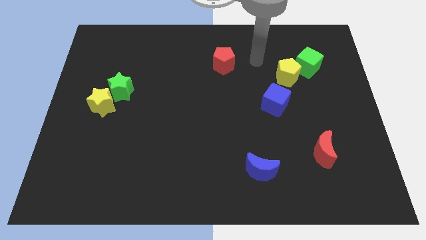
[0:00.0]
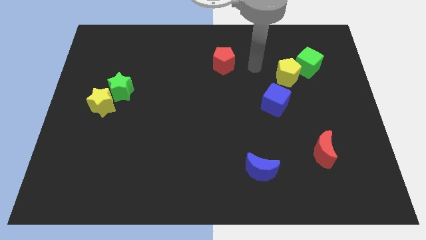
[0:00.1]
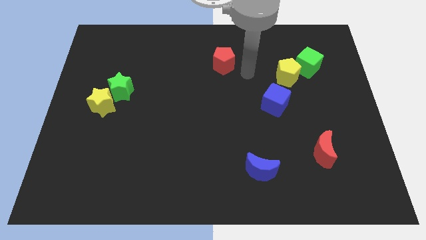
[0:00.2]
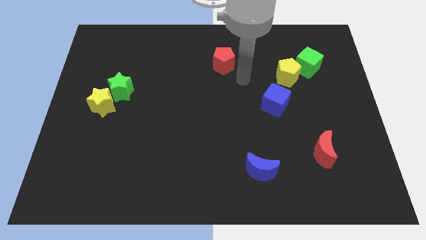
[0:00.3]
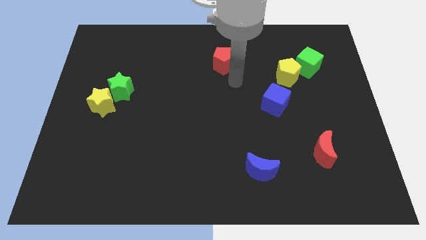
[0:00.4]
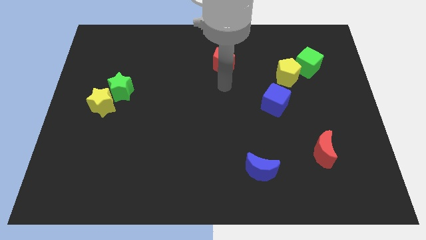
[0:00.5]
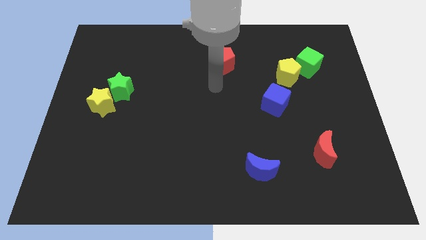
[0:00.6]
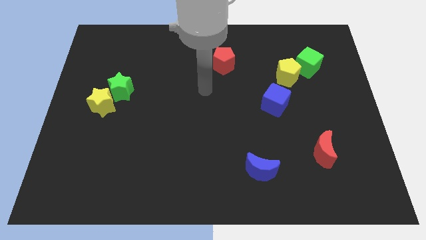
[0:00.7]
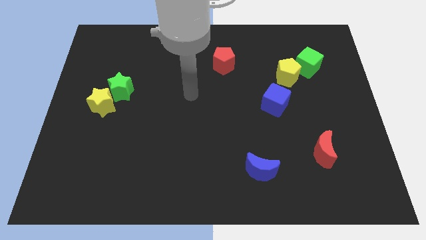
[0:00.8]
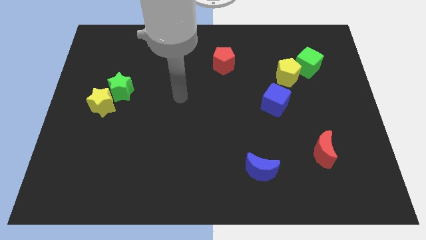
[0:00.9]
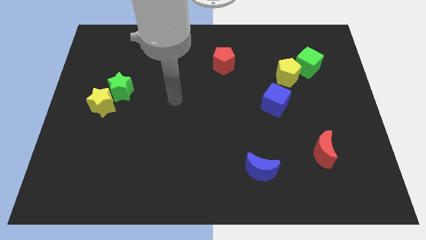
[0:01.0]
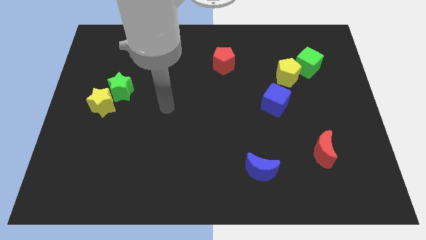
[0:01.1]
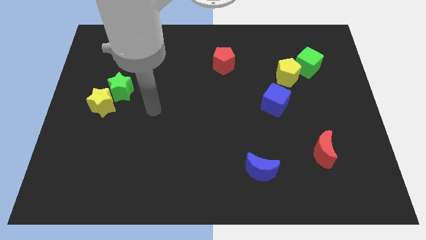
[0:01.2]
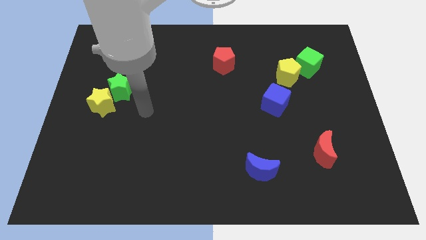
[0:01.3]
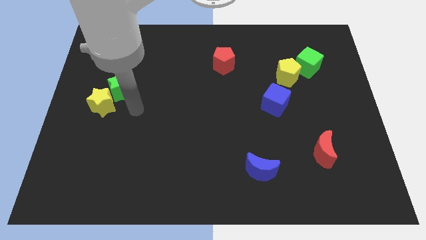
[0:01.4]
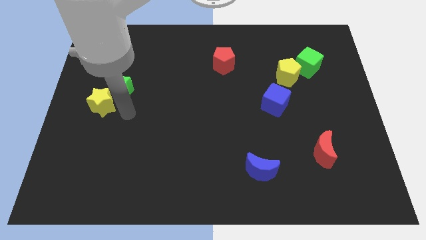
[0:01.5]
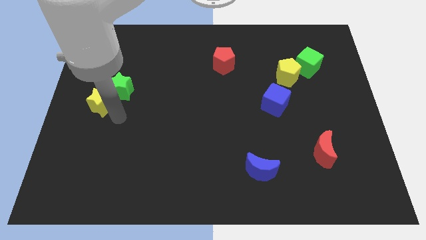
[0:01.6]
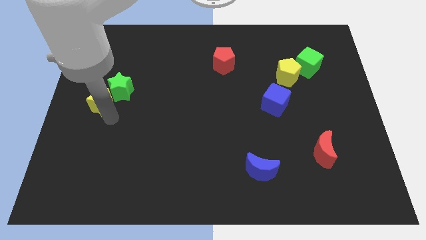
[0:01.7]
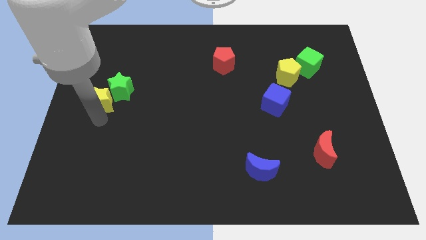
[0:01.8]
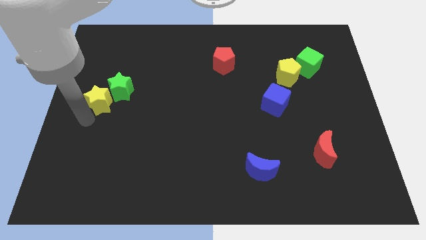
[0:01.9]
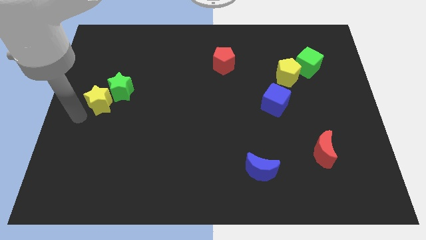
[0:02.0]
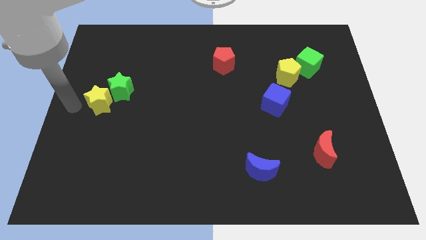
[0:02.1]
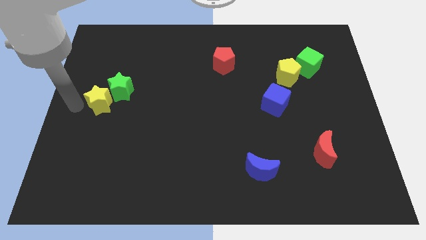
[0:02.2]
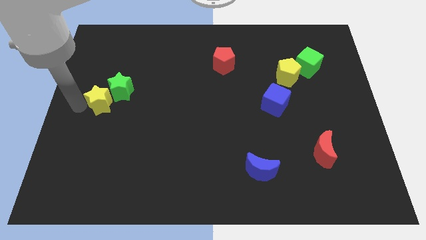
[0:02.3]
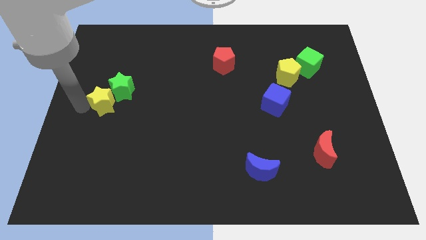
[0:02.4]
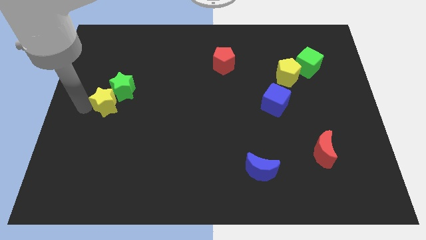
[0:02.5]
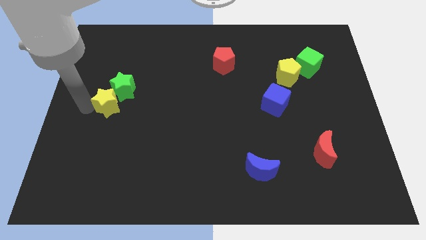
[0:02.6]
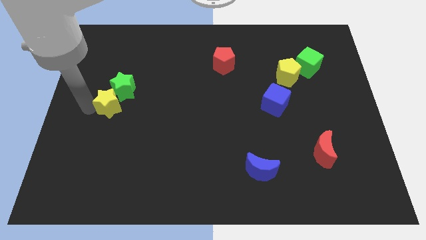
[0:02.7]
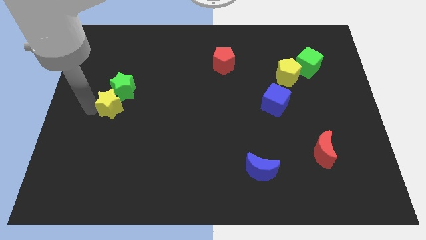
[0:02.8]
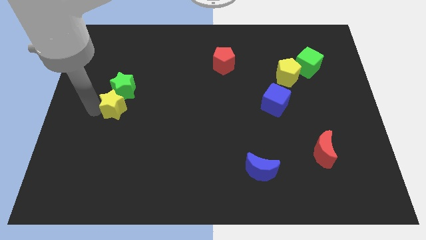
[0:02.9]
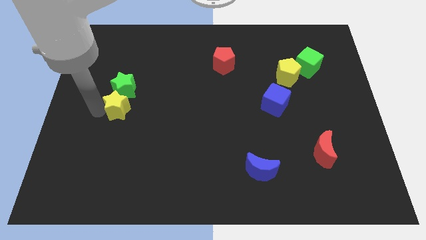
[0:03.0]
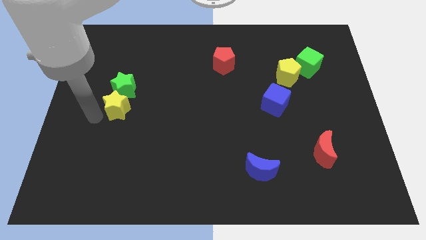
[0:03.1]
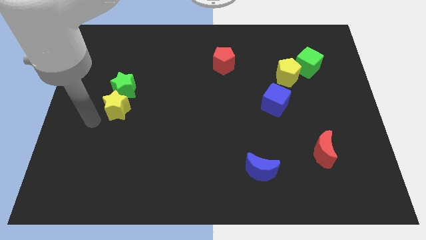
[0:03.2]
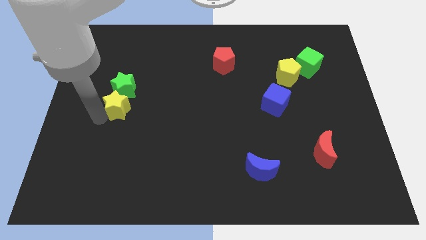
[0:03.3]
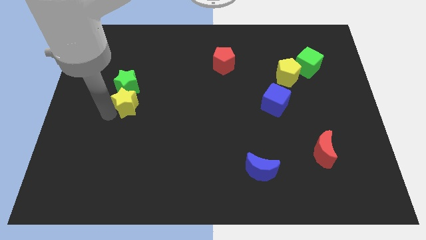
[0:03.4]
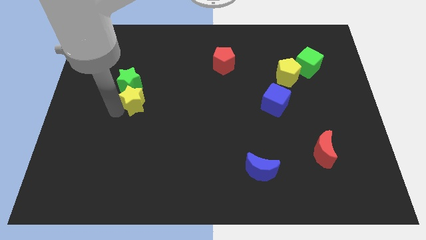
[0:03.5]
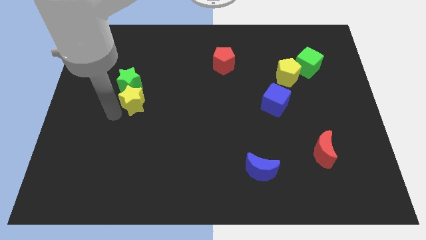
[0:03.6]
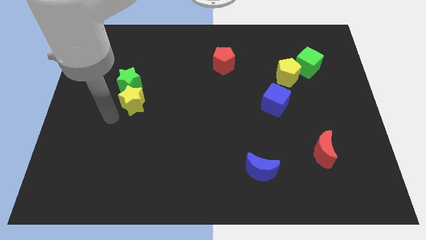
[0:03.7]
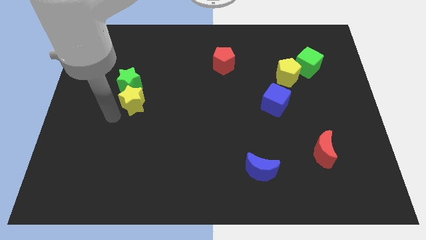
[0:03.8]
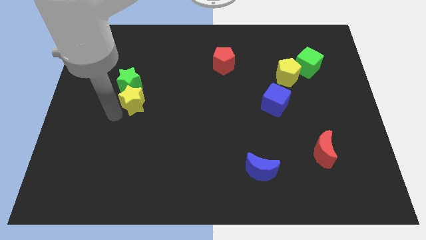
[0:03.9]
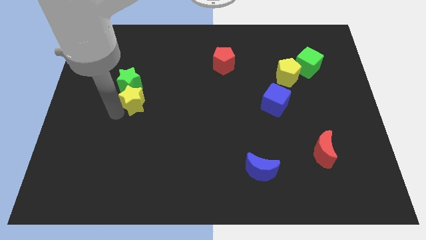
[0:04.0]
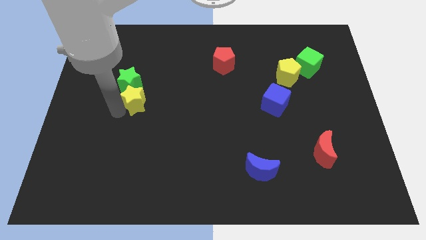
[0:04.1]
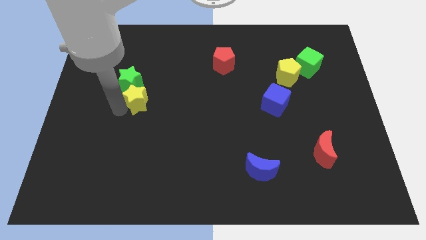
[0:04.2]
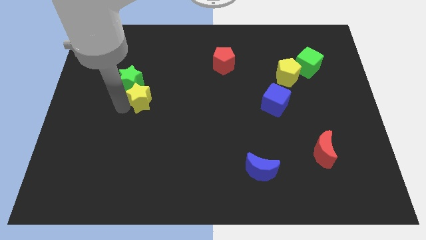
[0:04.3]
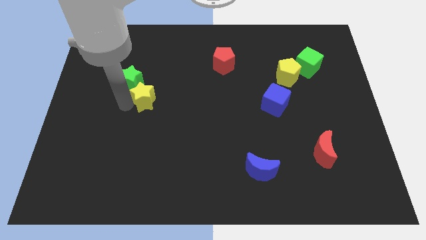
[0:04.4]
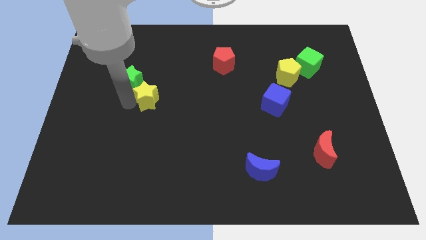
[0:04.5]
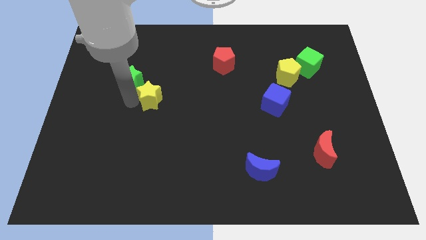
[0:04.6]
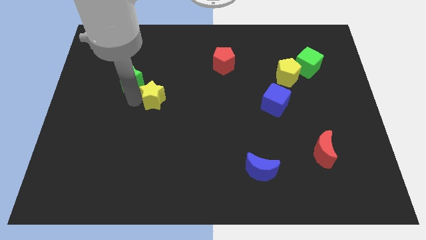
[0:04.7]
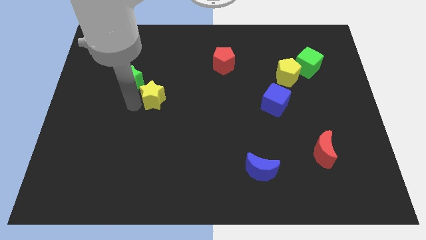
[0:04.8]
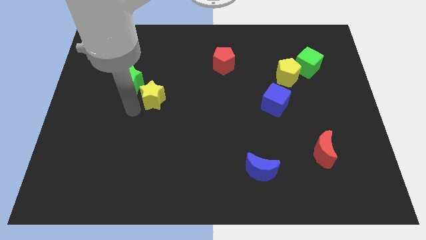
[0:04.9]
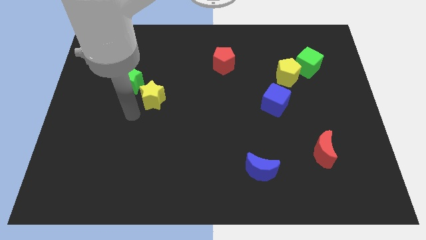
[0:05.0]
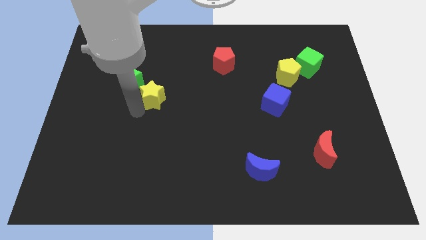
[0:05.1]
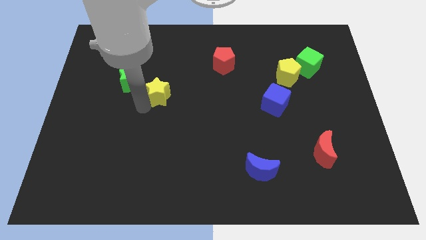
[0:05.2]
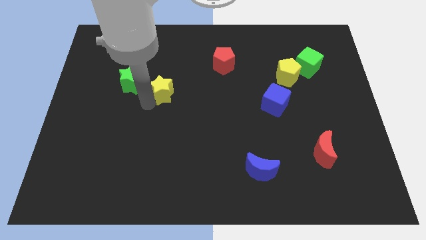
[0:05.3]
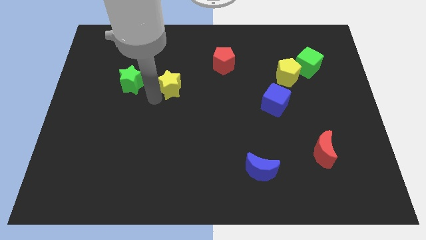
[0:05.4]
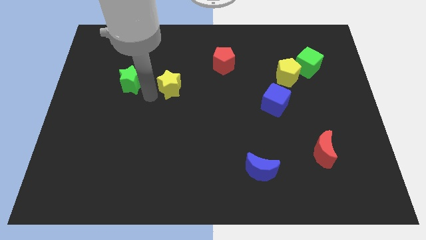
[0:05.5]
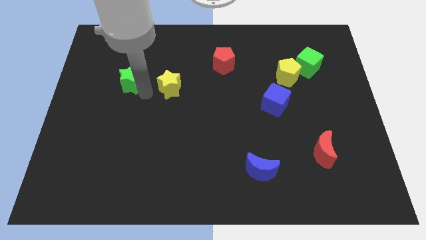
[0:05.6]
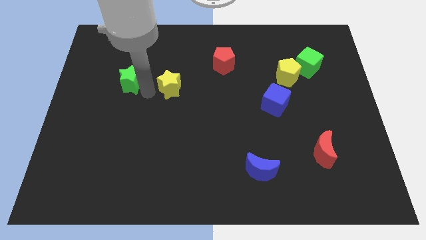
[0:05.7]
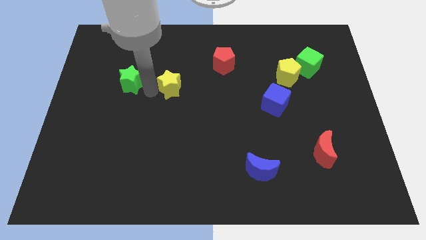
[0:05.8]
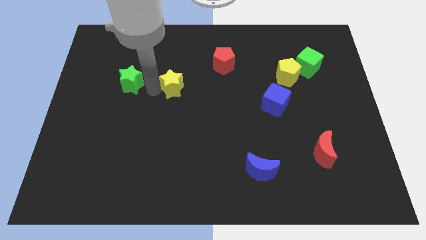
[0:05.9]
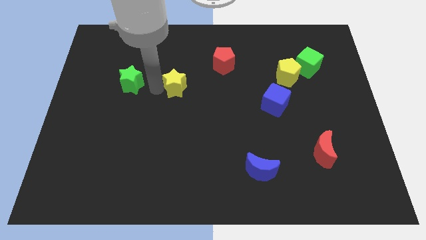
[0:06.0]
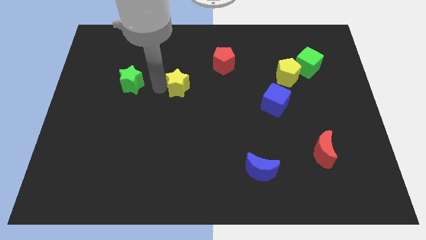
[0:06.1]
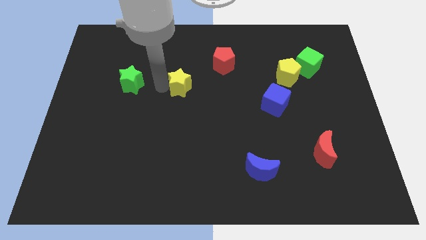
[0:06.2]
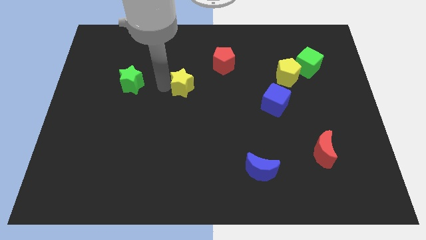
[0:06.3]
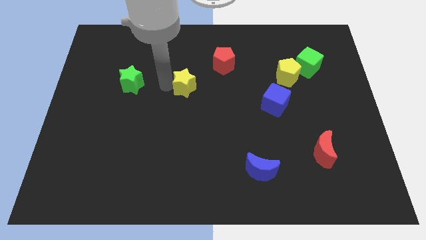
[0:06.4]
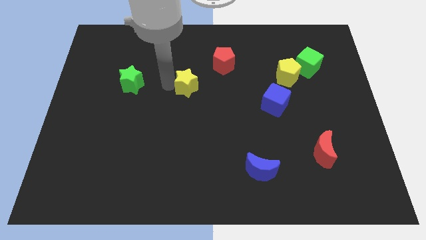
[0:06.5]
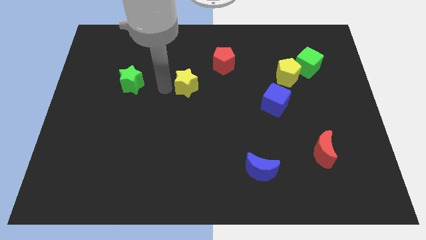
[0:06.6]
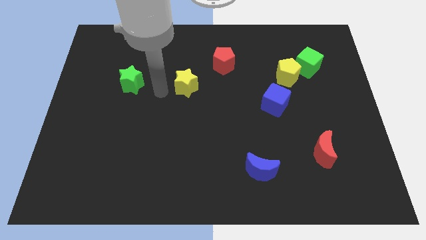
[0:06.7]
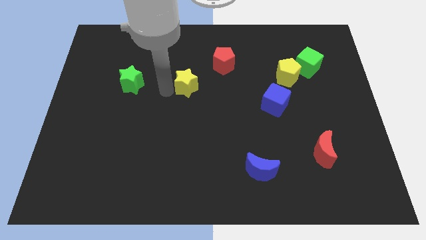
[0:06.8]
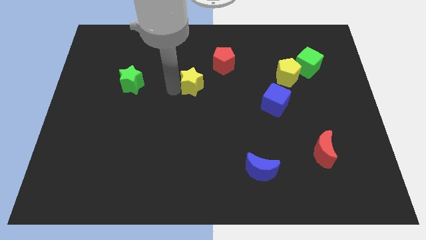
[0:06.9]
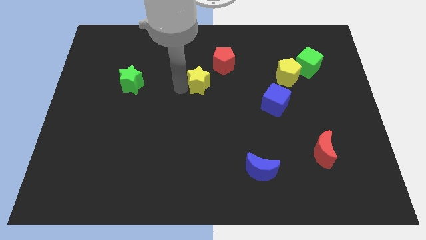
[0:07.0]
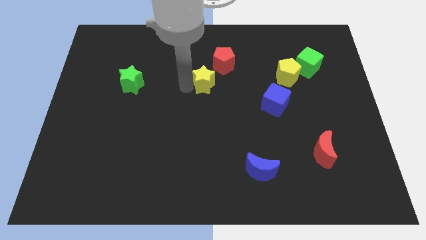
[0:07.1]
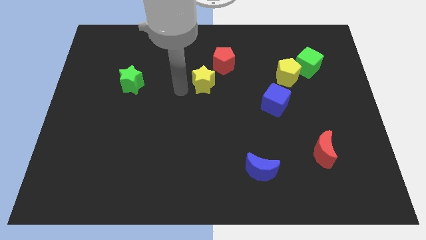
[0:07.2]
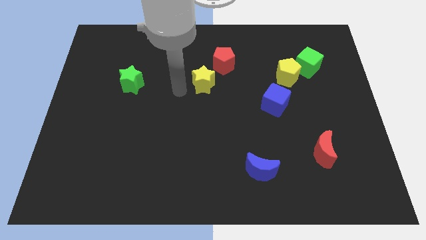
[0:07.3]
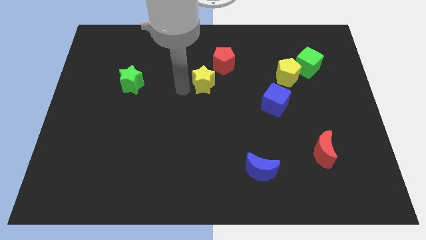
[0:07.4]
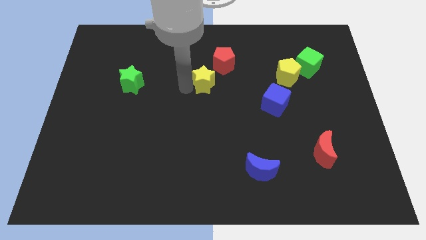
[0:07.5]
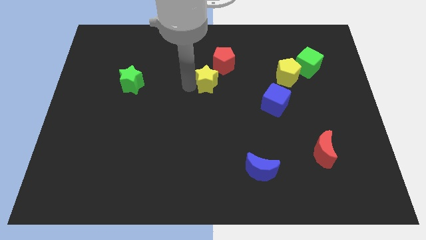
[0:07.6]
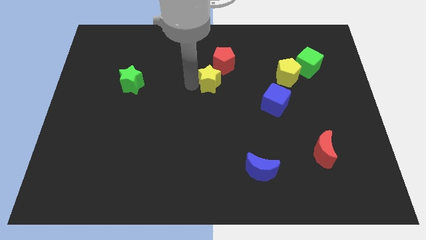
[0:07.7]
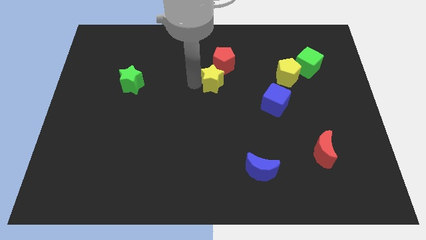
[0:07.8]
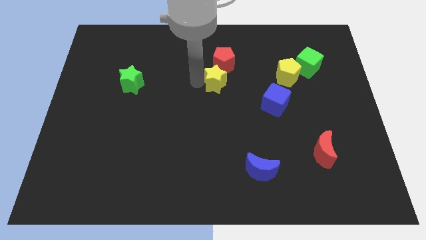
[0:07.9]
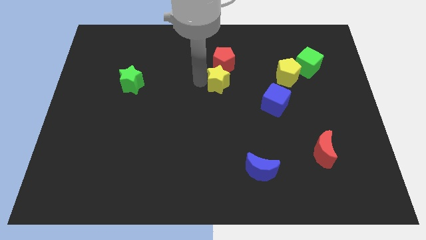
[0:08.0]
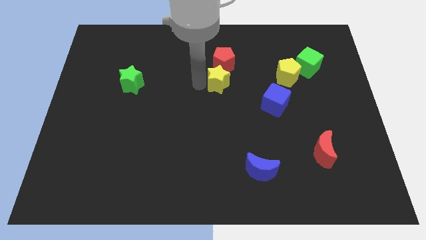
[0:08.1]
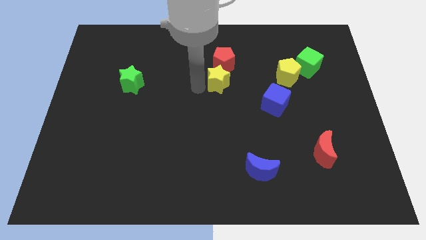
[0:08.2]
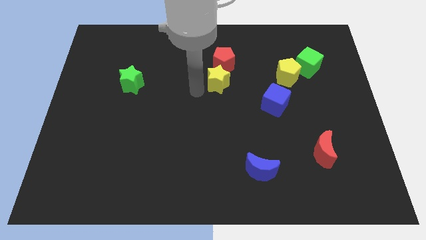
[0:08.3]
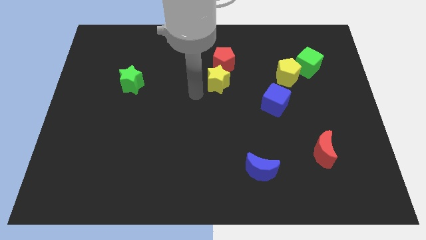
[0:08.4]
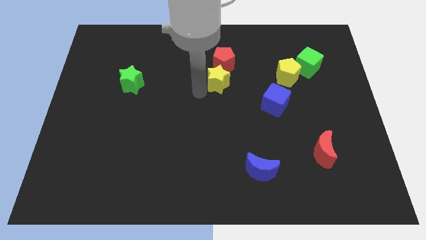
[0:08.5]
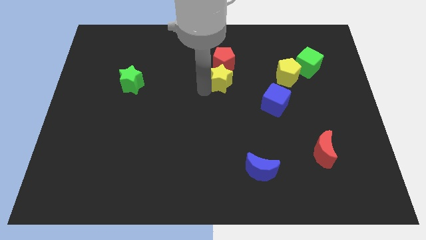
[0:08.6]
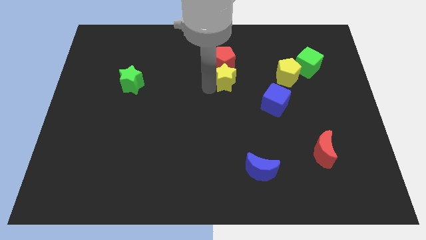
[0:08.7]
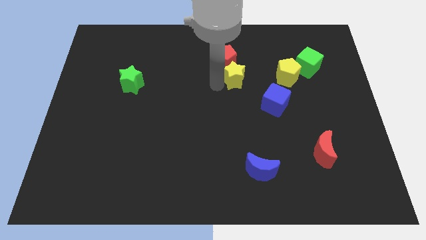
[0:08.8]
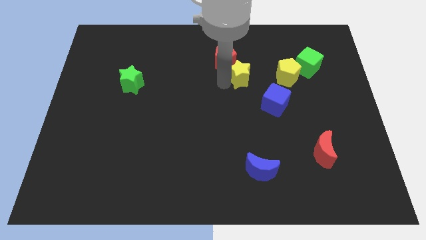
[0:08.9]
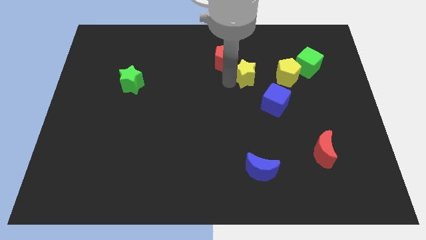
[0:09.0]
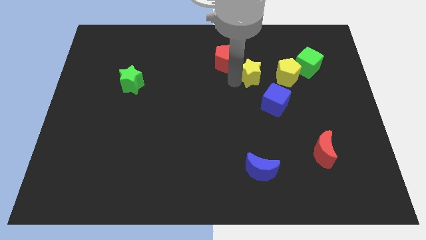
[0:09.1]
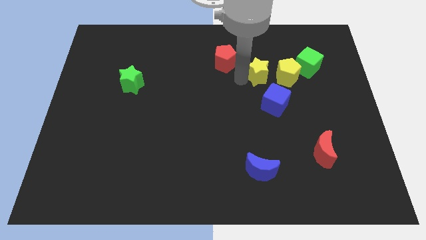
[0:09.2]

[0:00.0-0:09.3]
move the yellow star to the top side of the blue cube
